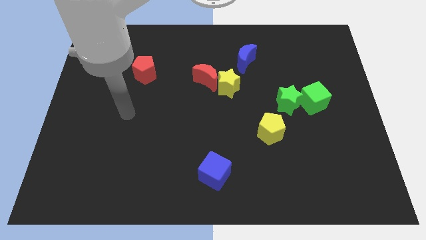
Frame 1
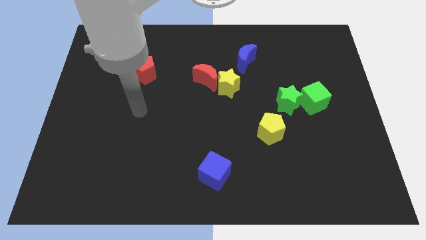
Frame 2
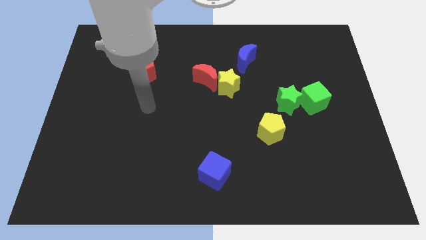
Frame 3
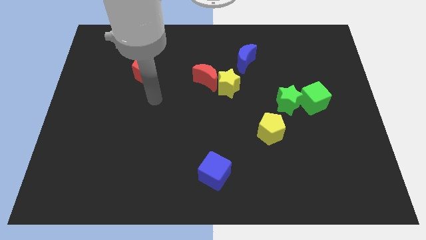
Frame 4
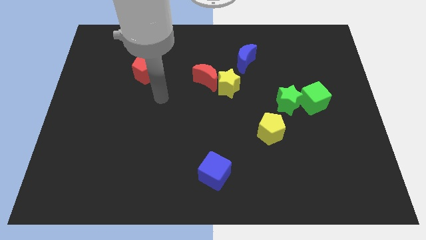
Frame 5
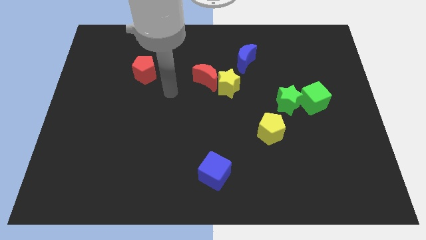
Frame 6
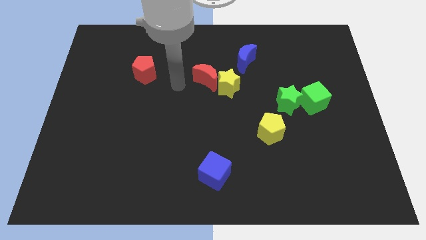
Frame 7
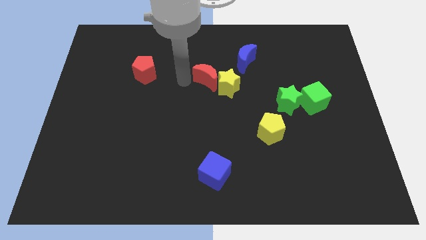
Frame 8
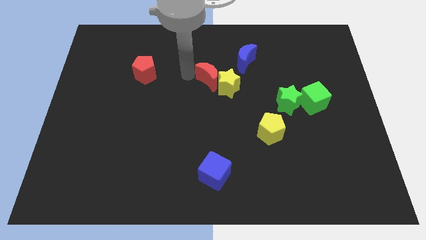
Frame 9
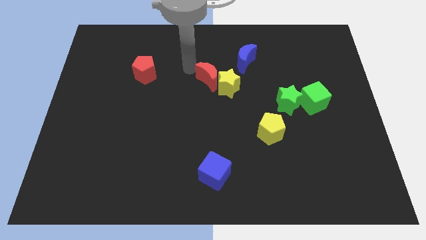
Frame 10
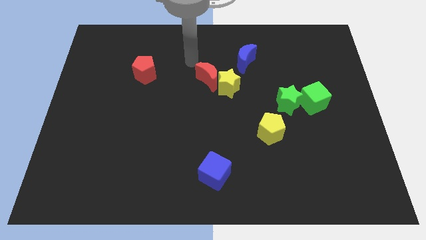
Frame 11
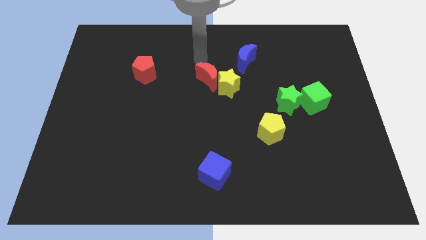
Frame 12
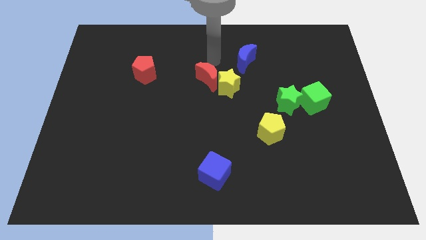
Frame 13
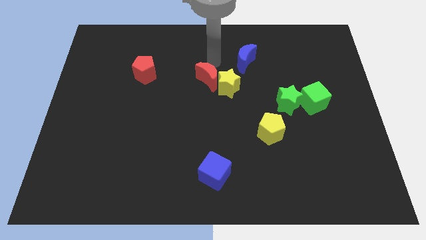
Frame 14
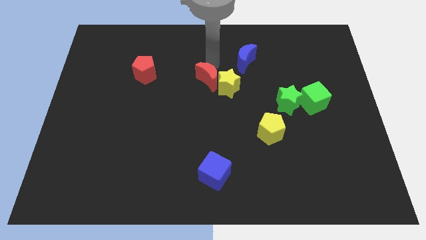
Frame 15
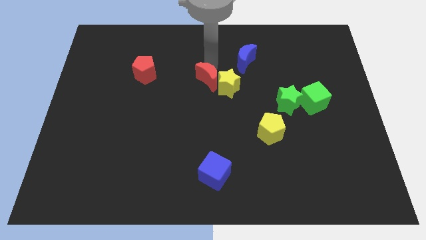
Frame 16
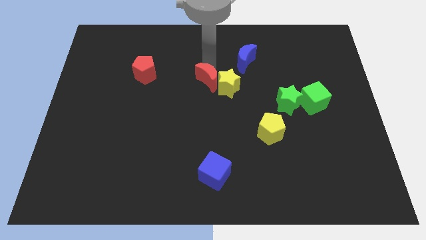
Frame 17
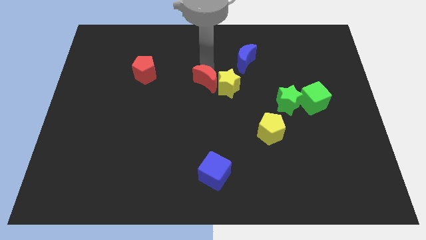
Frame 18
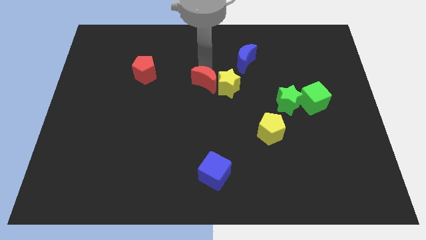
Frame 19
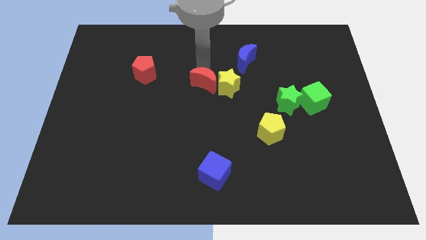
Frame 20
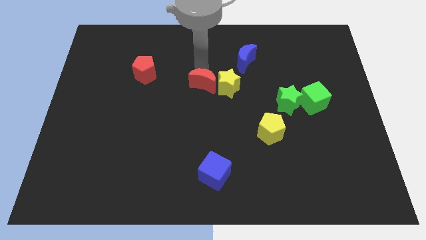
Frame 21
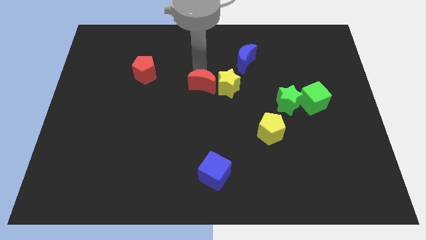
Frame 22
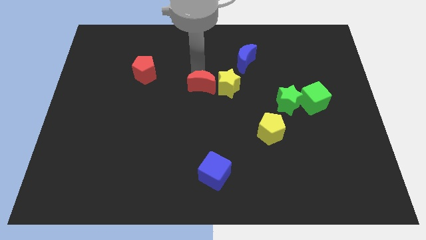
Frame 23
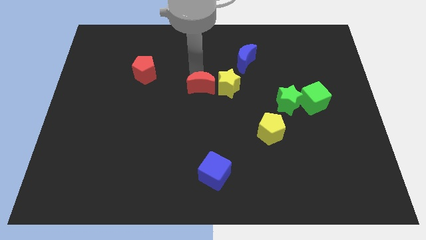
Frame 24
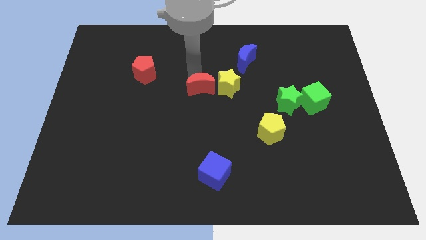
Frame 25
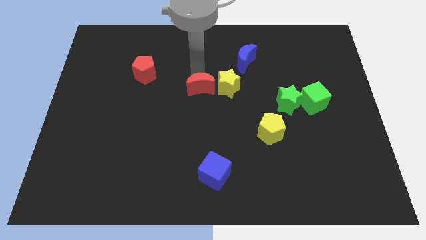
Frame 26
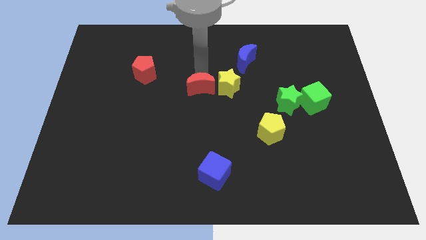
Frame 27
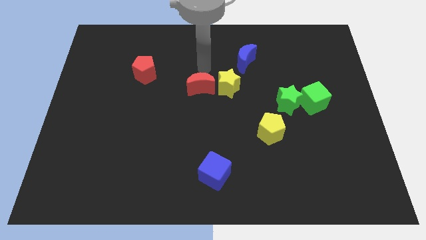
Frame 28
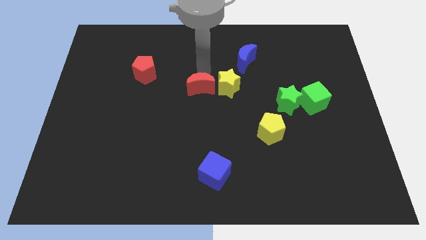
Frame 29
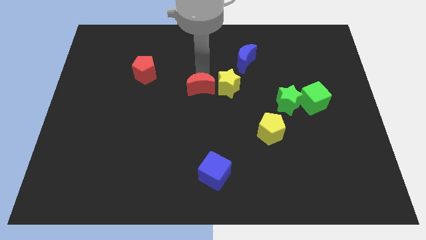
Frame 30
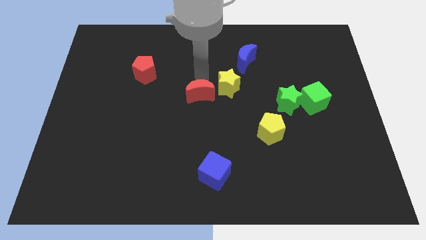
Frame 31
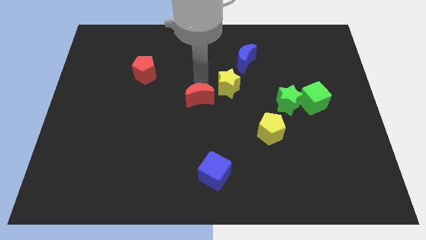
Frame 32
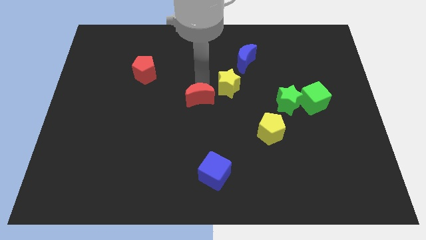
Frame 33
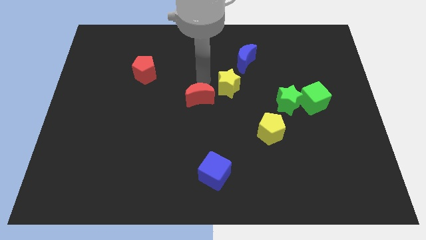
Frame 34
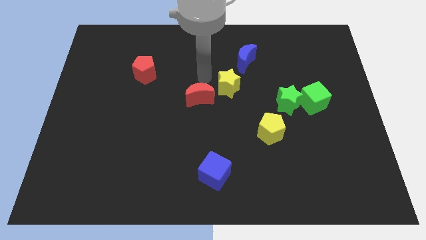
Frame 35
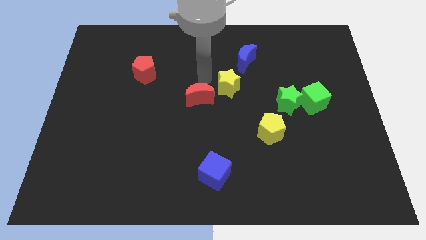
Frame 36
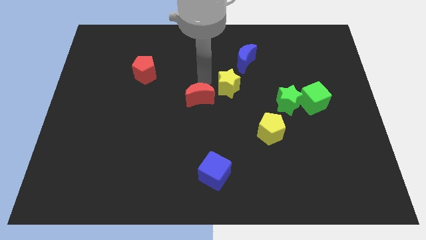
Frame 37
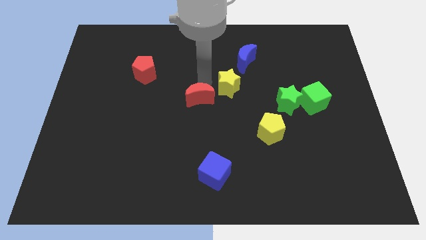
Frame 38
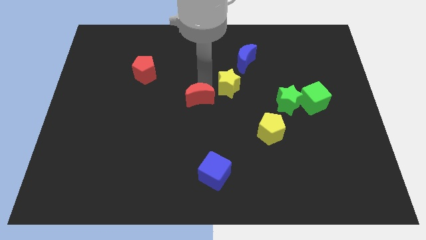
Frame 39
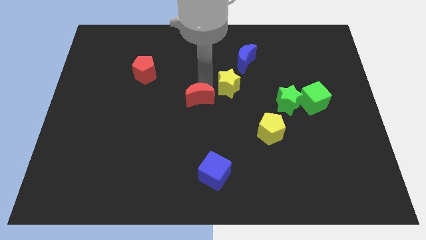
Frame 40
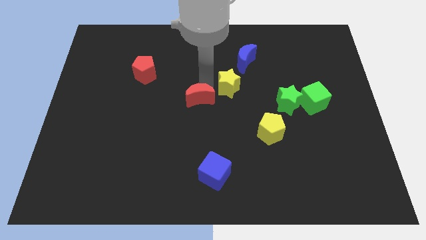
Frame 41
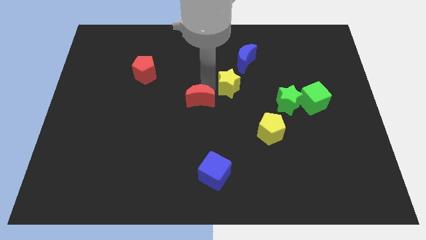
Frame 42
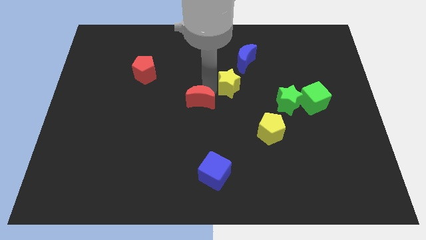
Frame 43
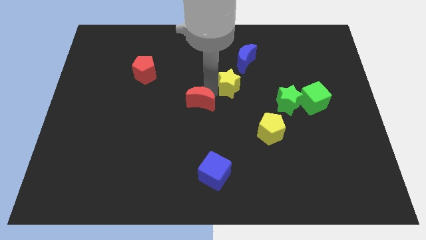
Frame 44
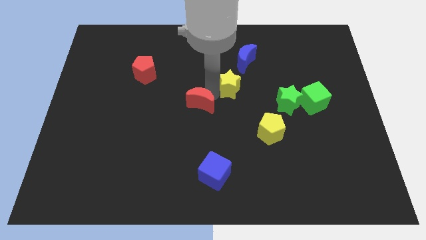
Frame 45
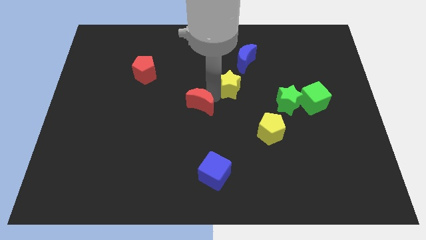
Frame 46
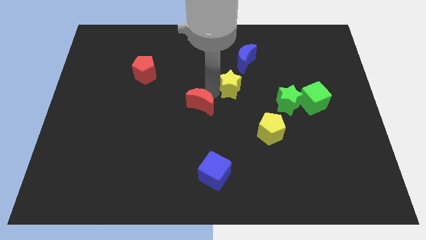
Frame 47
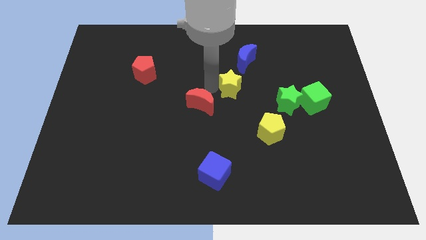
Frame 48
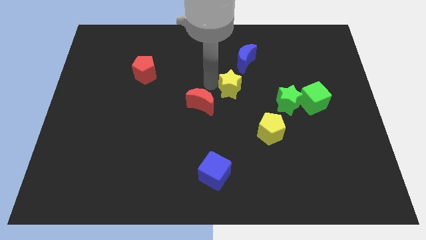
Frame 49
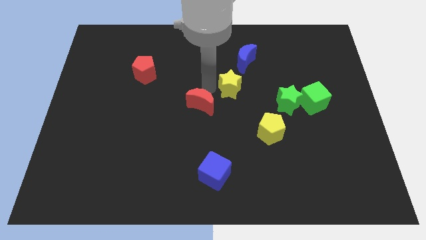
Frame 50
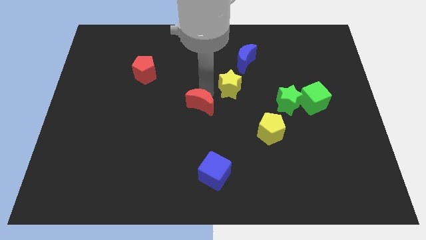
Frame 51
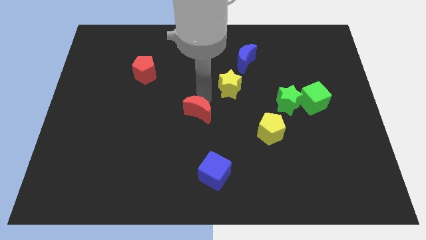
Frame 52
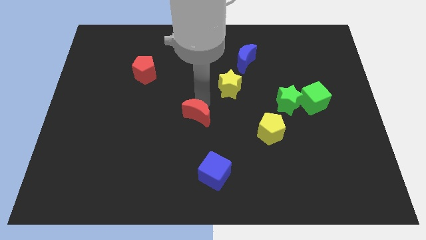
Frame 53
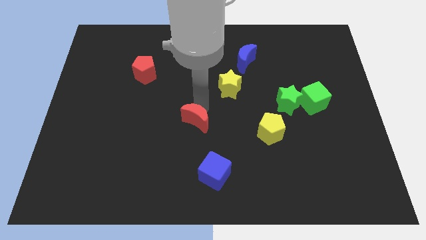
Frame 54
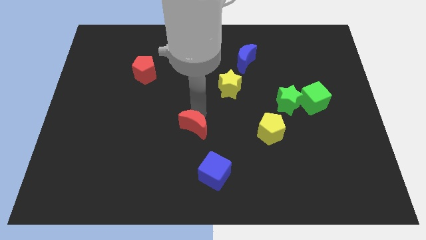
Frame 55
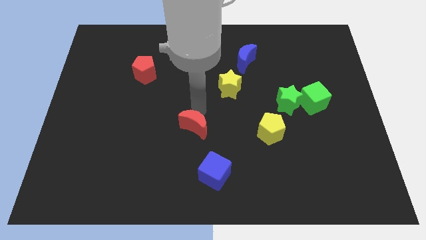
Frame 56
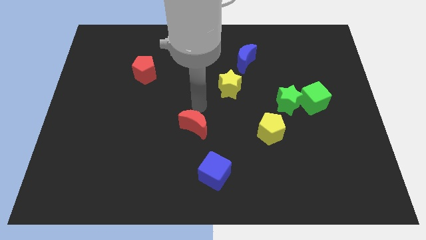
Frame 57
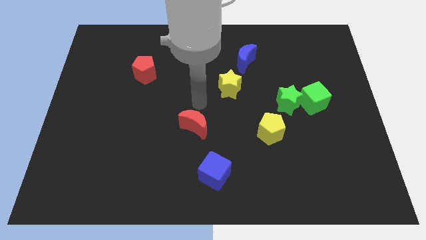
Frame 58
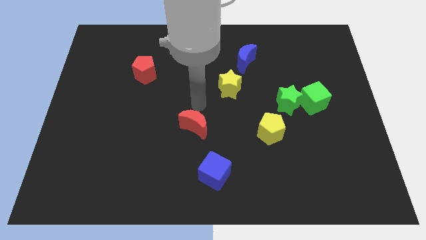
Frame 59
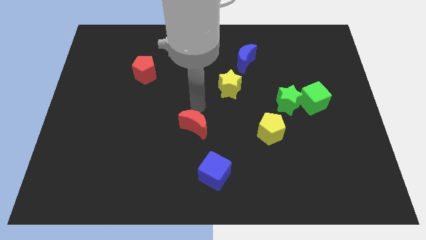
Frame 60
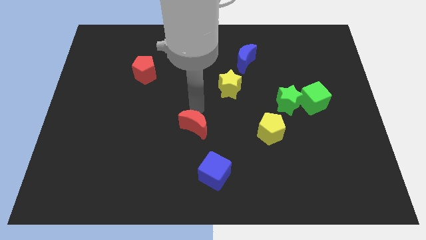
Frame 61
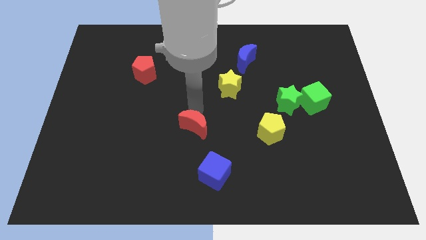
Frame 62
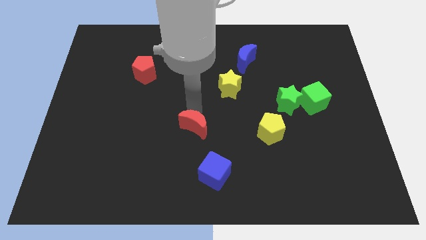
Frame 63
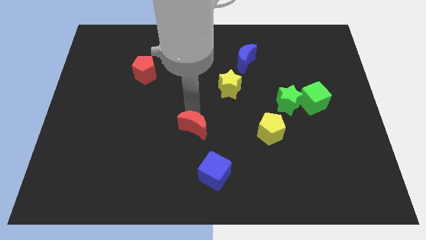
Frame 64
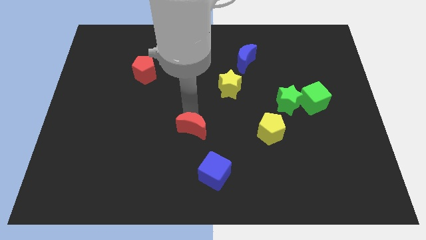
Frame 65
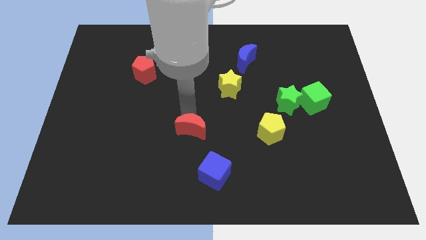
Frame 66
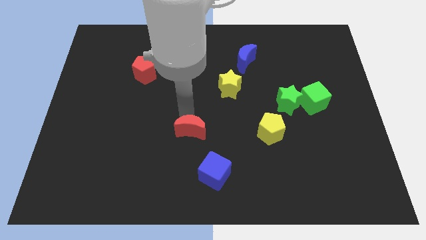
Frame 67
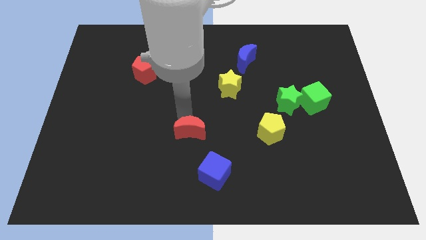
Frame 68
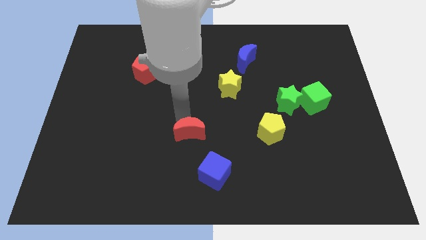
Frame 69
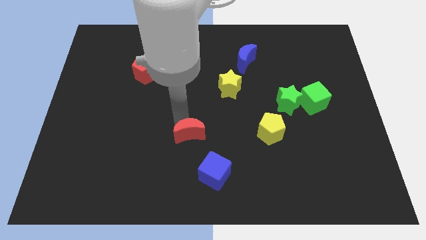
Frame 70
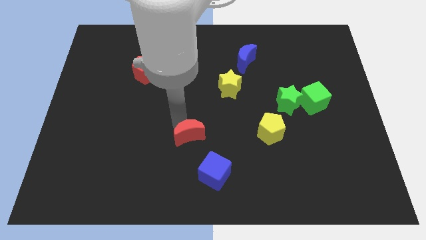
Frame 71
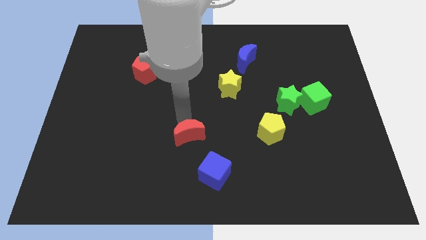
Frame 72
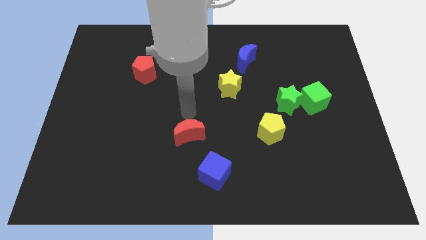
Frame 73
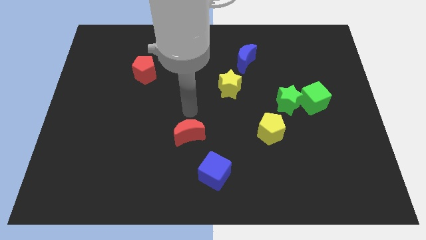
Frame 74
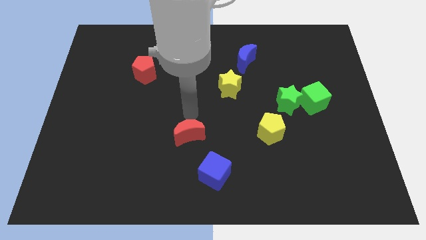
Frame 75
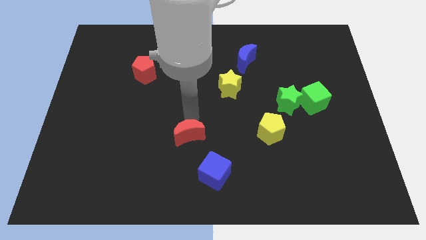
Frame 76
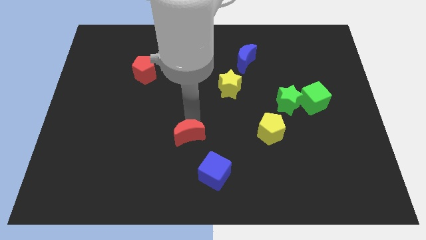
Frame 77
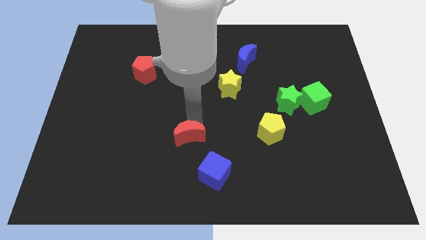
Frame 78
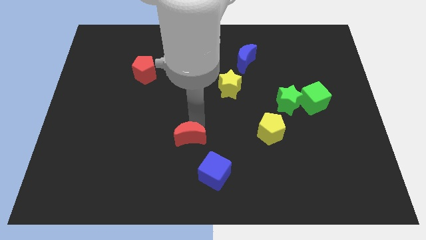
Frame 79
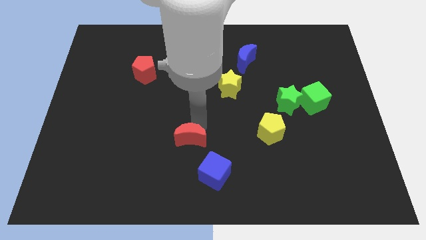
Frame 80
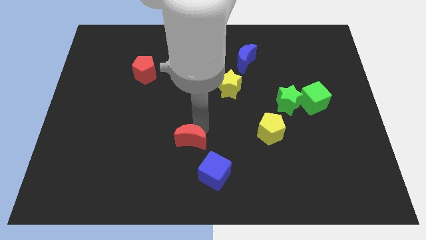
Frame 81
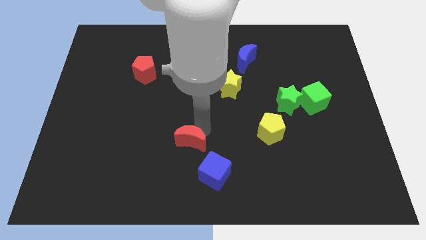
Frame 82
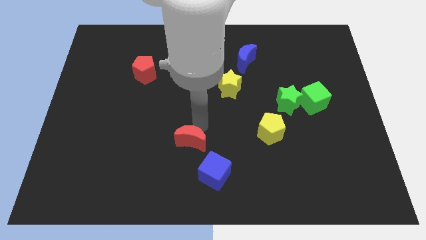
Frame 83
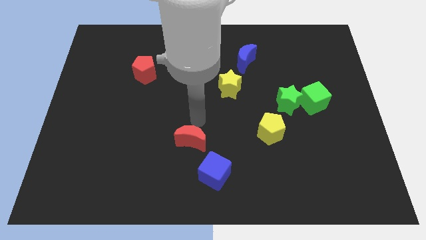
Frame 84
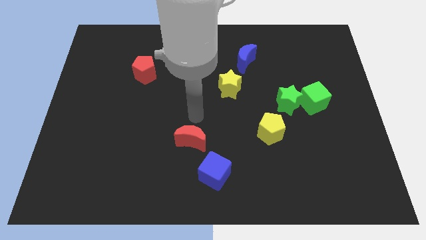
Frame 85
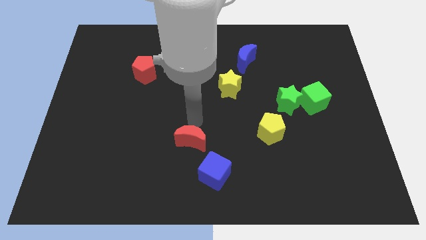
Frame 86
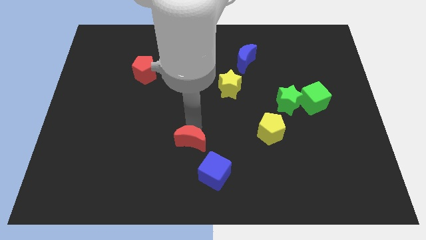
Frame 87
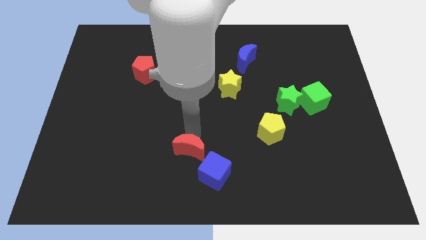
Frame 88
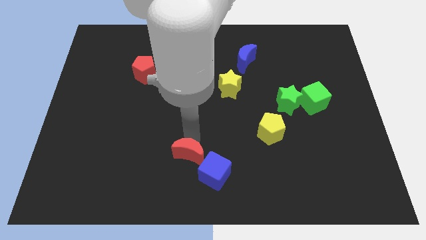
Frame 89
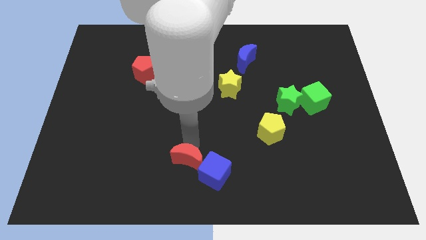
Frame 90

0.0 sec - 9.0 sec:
put the red moon to the bottom side
